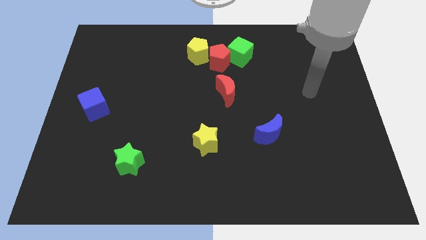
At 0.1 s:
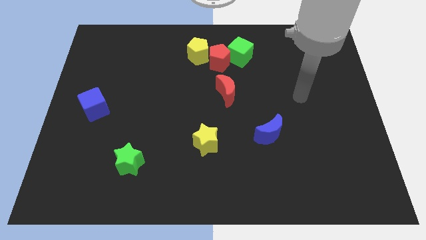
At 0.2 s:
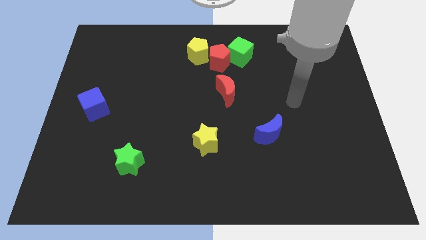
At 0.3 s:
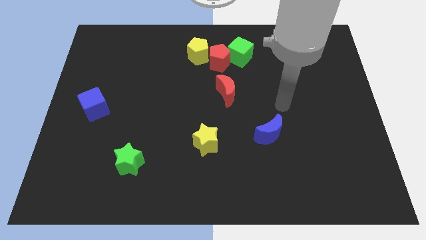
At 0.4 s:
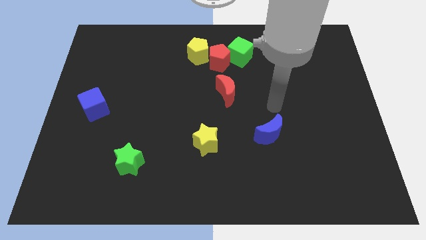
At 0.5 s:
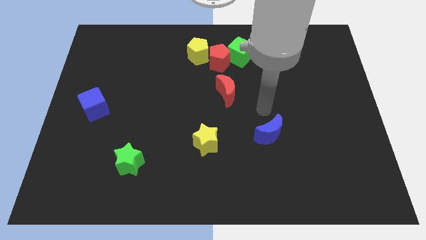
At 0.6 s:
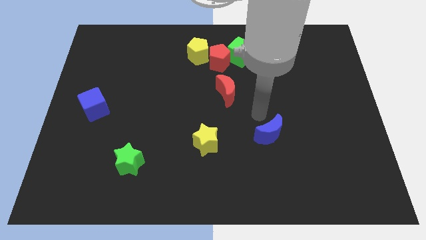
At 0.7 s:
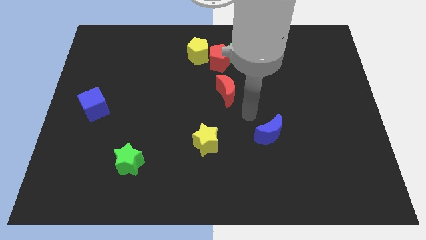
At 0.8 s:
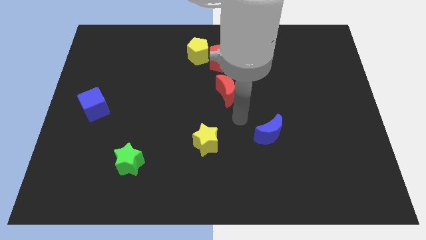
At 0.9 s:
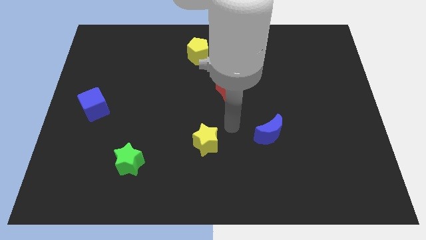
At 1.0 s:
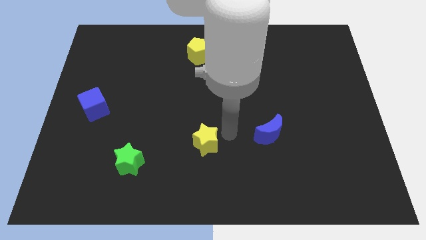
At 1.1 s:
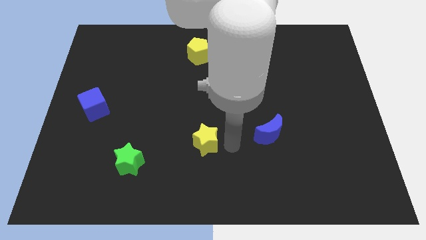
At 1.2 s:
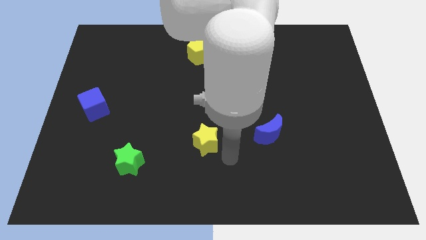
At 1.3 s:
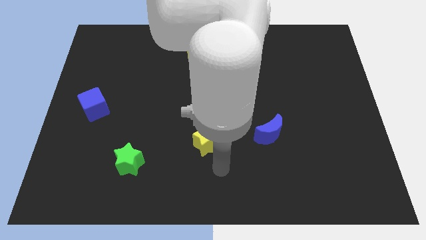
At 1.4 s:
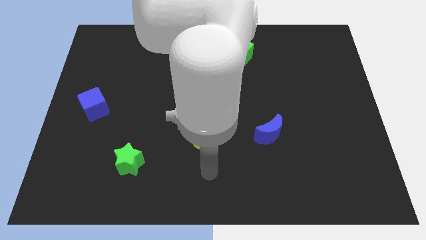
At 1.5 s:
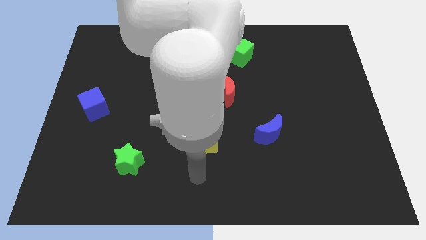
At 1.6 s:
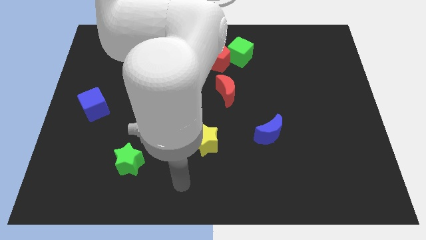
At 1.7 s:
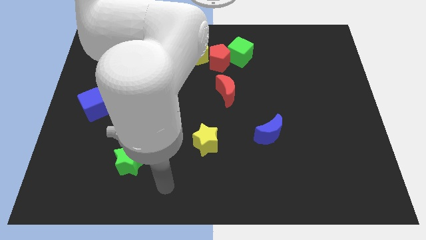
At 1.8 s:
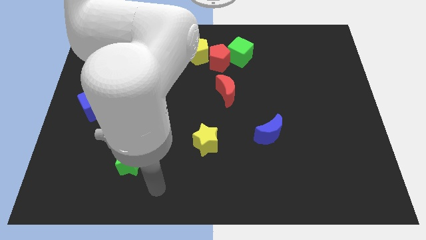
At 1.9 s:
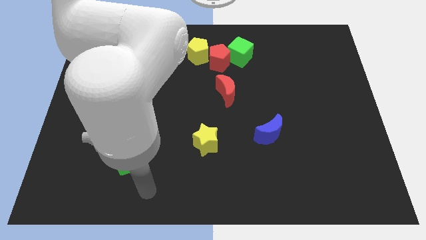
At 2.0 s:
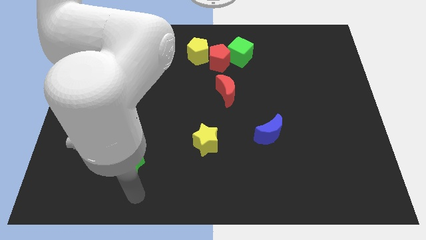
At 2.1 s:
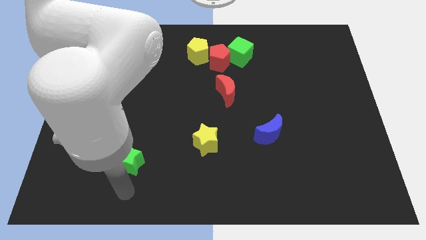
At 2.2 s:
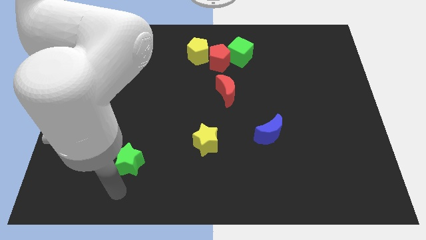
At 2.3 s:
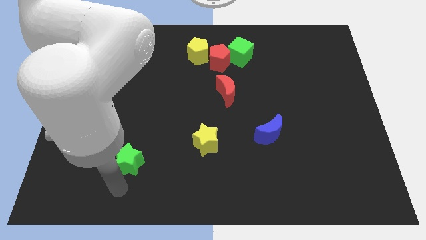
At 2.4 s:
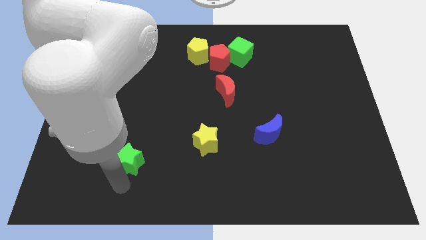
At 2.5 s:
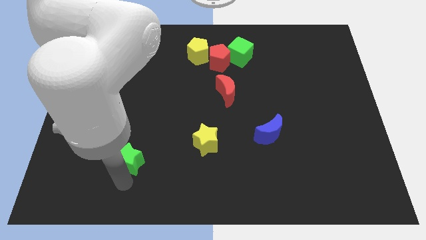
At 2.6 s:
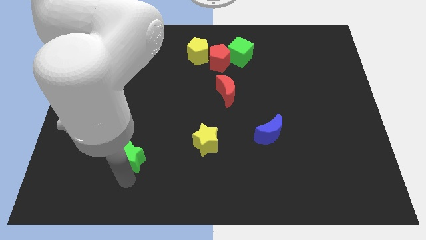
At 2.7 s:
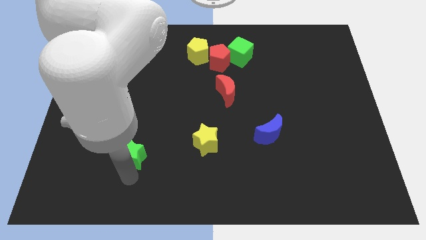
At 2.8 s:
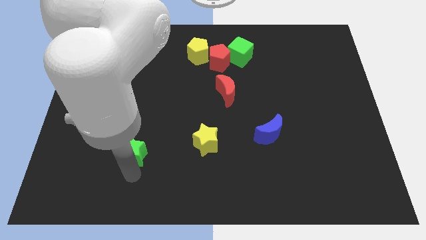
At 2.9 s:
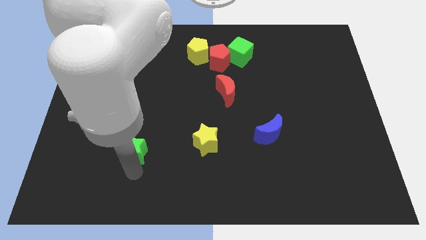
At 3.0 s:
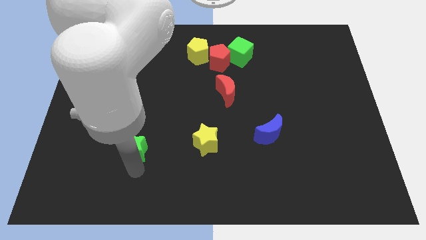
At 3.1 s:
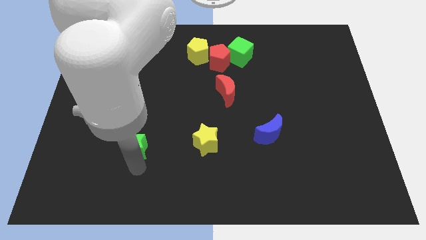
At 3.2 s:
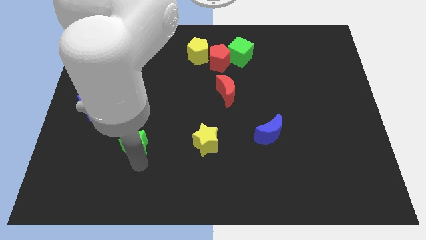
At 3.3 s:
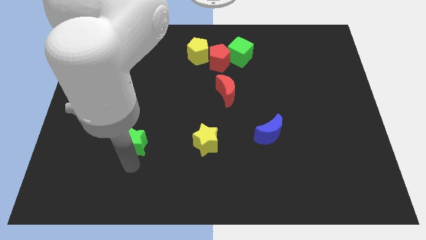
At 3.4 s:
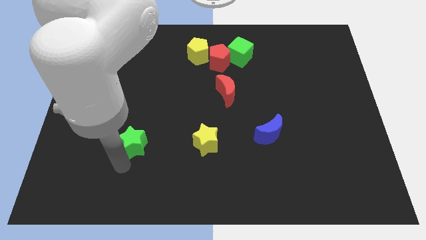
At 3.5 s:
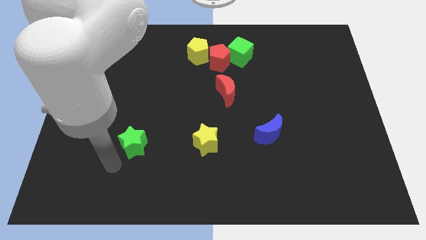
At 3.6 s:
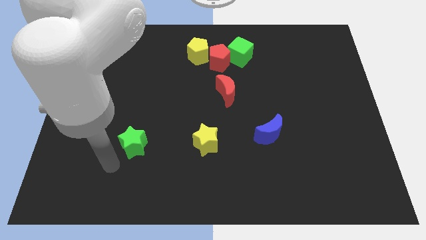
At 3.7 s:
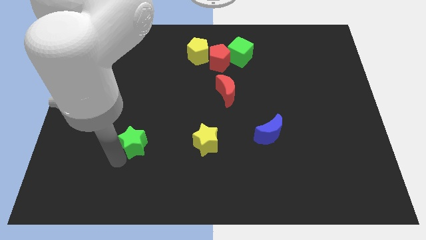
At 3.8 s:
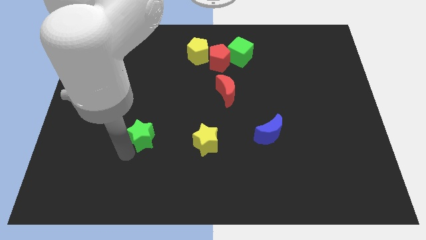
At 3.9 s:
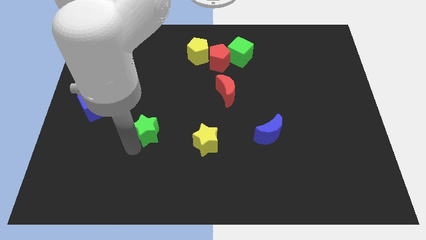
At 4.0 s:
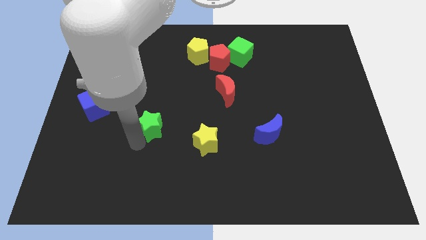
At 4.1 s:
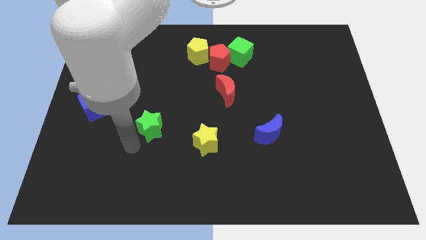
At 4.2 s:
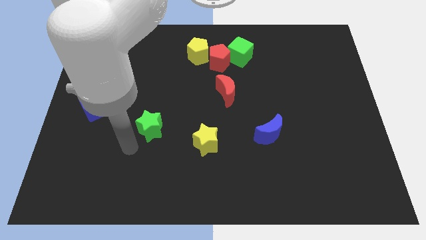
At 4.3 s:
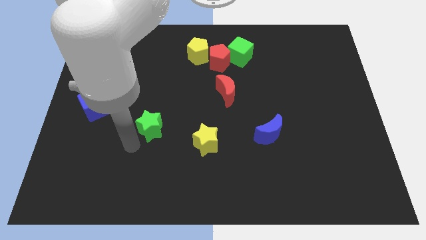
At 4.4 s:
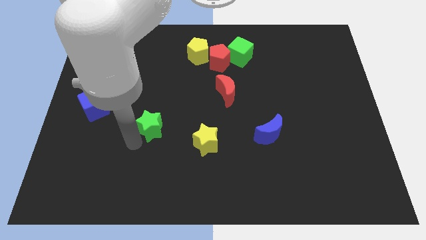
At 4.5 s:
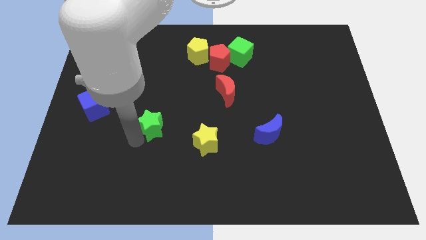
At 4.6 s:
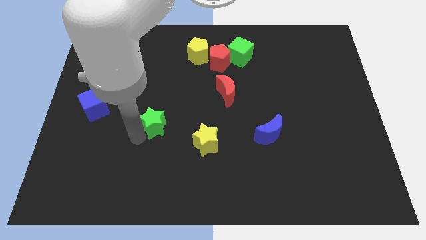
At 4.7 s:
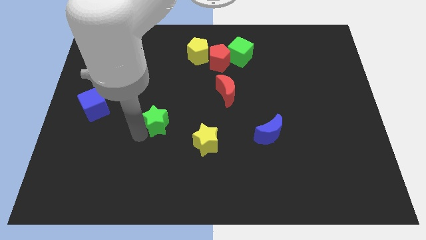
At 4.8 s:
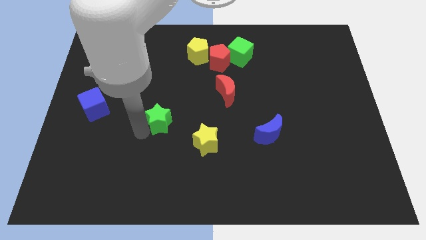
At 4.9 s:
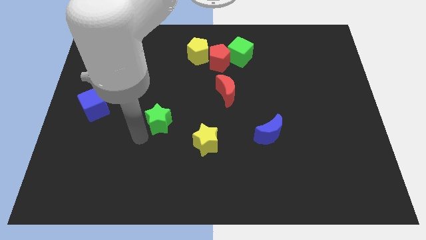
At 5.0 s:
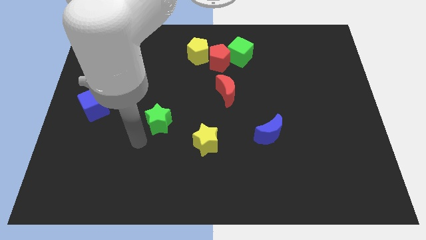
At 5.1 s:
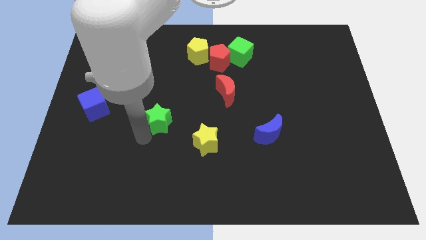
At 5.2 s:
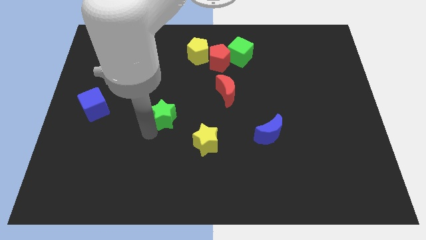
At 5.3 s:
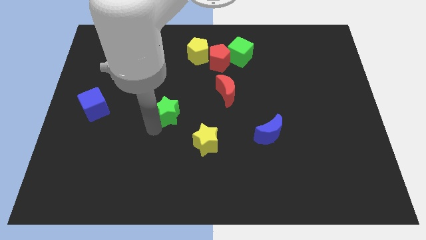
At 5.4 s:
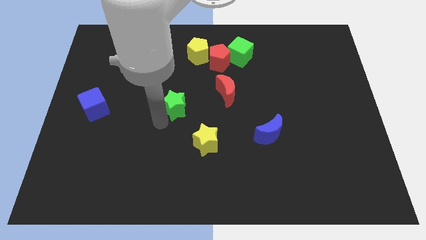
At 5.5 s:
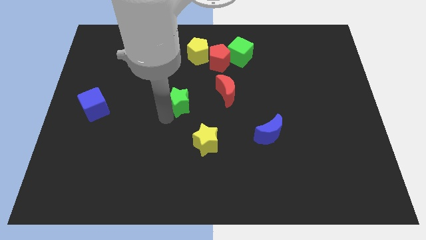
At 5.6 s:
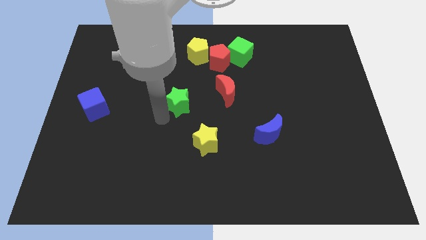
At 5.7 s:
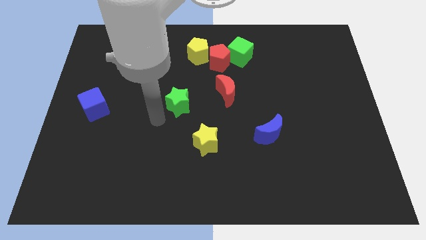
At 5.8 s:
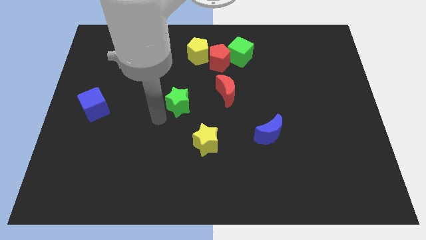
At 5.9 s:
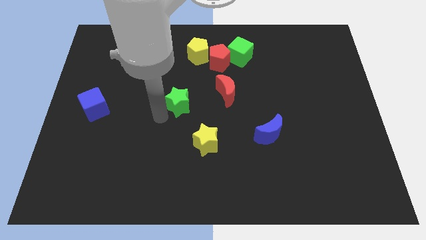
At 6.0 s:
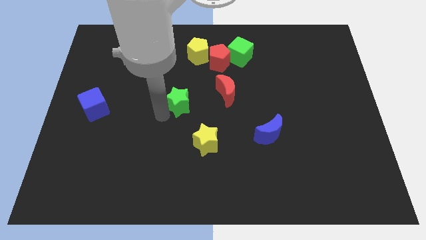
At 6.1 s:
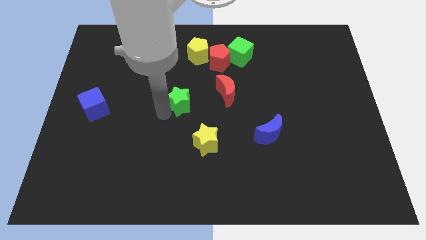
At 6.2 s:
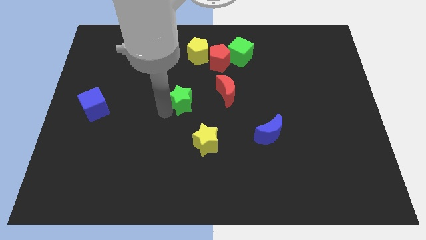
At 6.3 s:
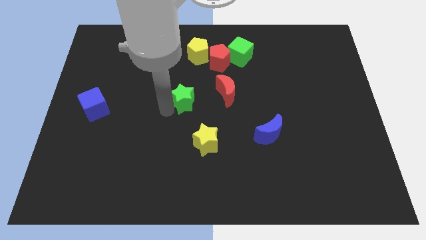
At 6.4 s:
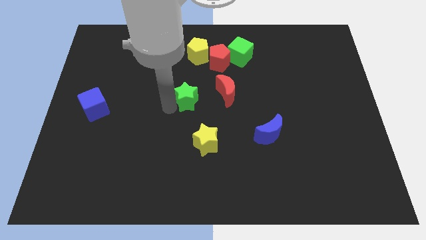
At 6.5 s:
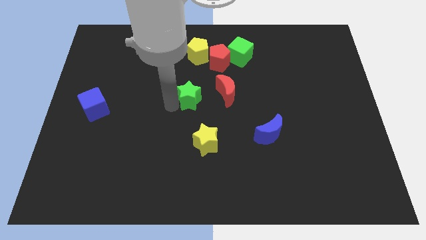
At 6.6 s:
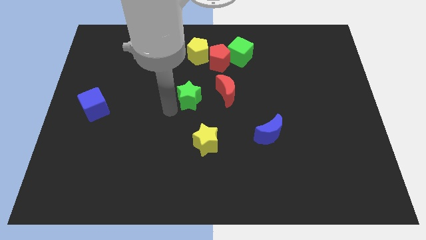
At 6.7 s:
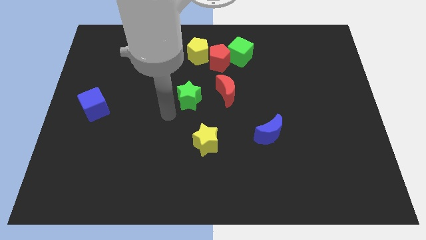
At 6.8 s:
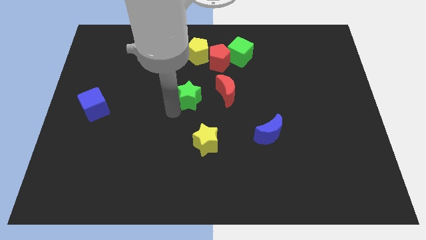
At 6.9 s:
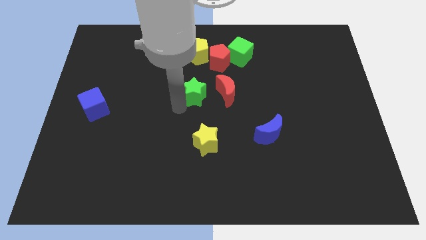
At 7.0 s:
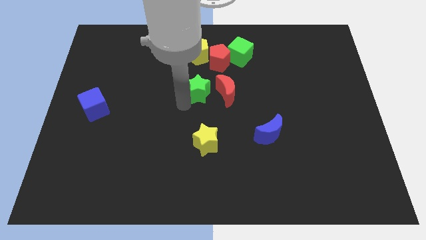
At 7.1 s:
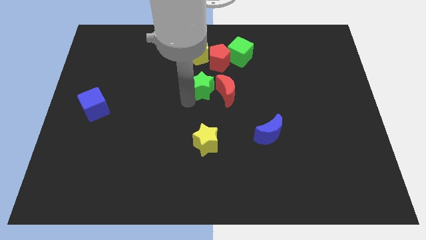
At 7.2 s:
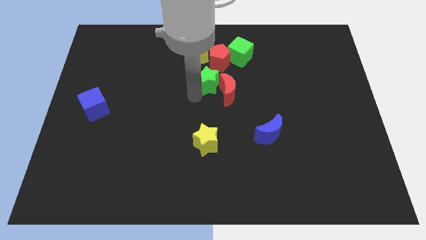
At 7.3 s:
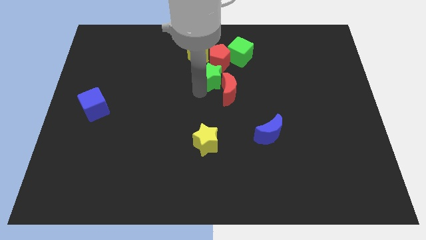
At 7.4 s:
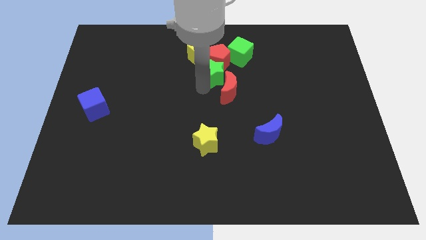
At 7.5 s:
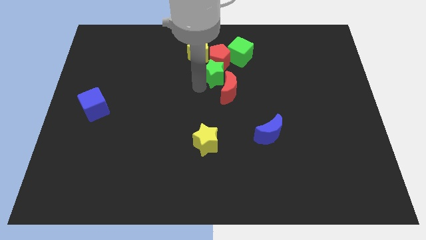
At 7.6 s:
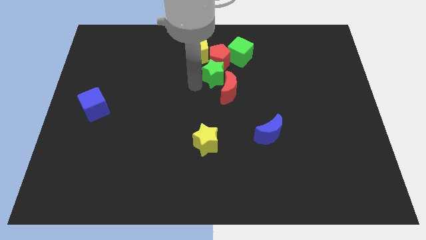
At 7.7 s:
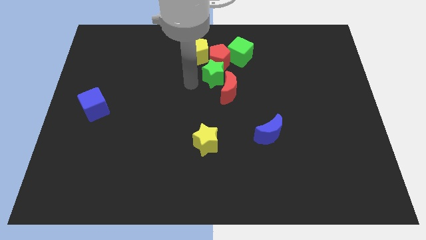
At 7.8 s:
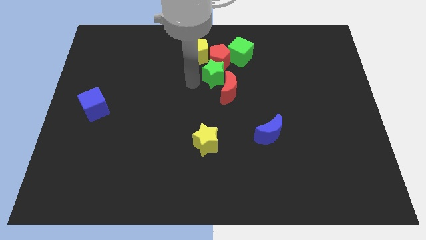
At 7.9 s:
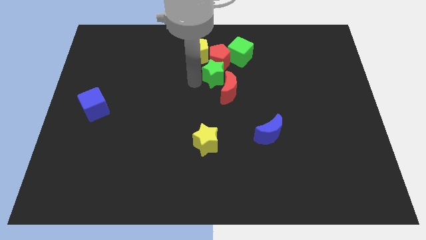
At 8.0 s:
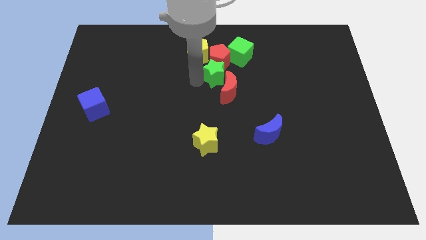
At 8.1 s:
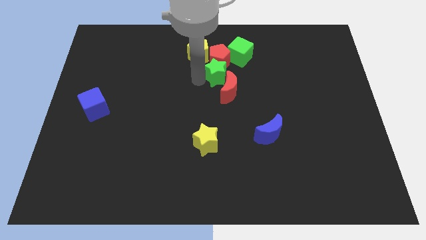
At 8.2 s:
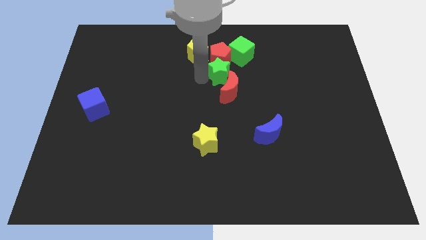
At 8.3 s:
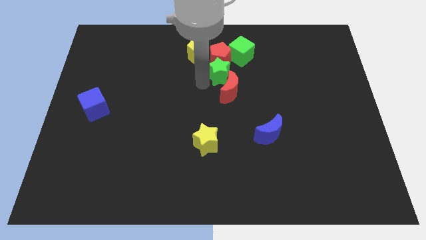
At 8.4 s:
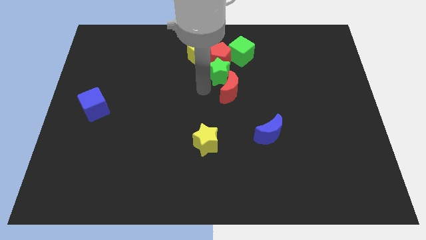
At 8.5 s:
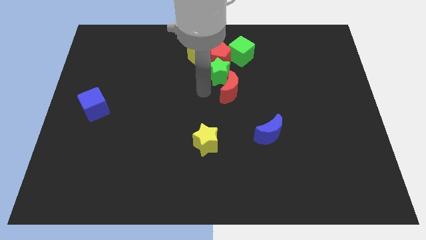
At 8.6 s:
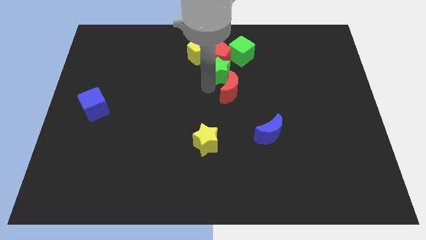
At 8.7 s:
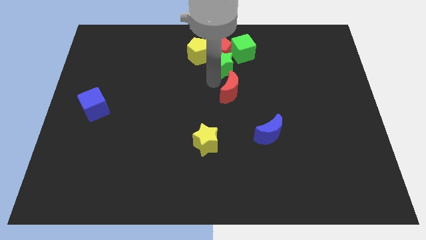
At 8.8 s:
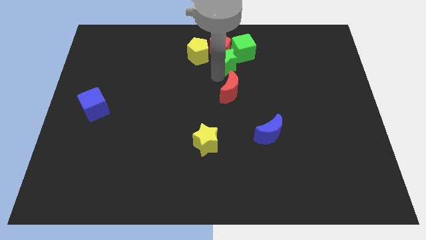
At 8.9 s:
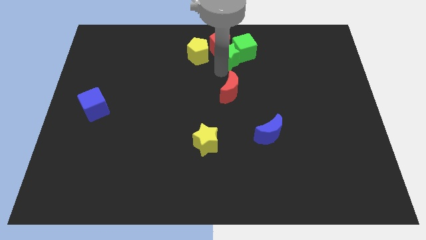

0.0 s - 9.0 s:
push the green star close to the green cube
